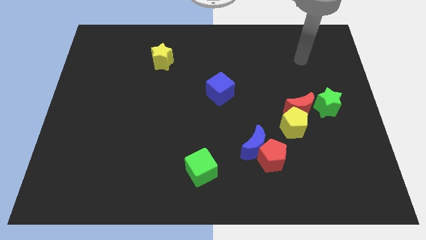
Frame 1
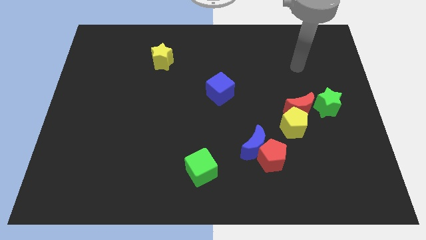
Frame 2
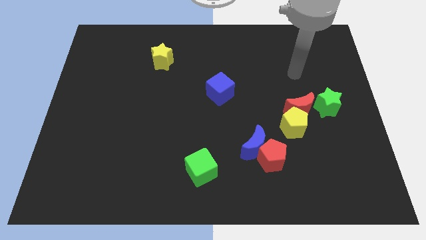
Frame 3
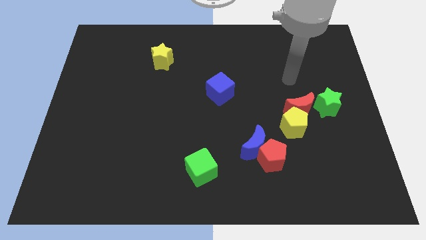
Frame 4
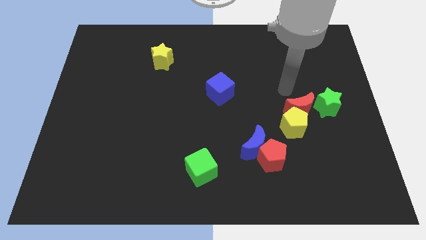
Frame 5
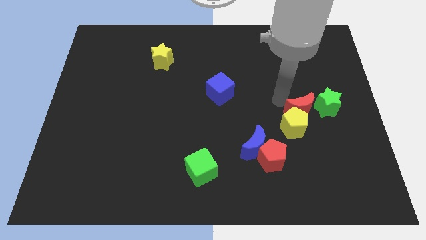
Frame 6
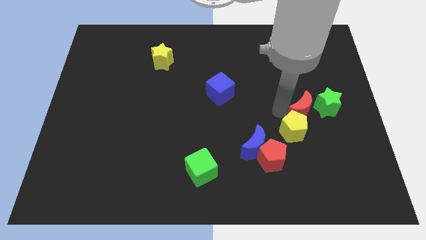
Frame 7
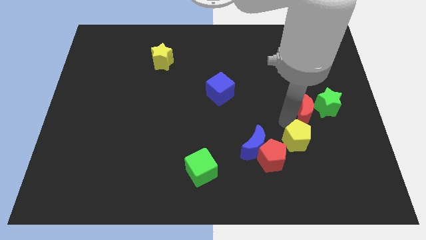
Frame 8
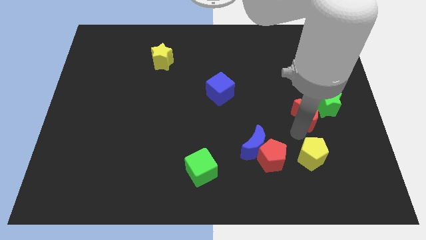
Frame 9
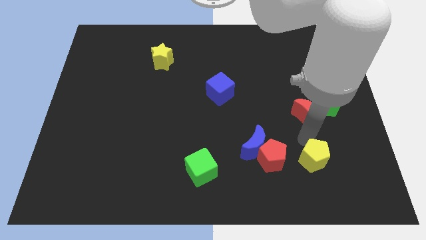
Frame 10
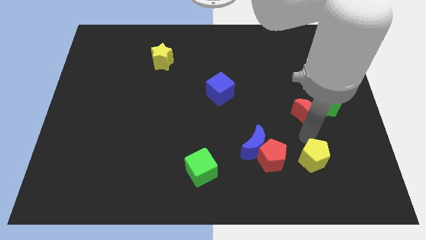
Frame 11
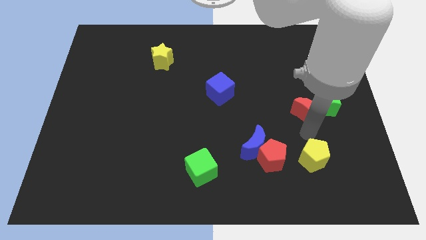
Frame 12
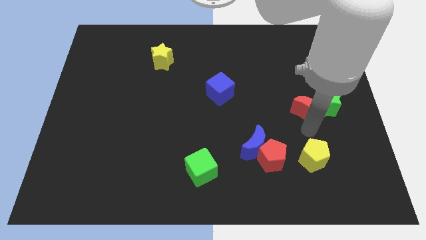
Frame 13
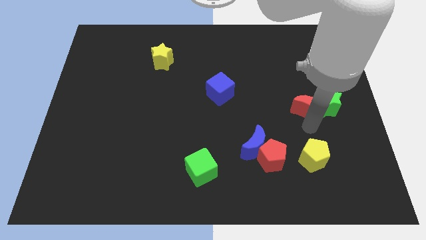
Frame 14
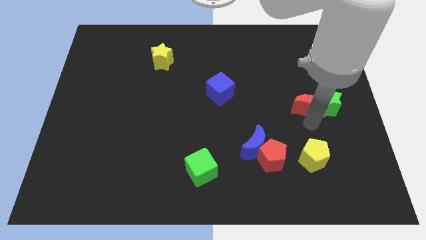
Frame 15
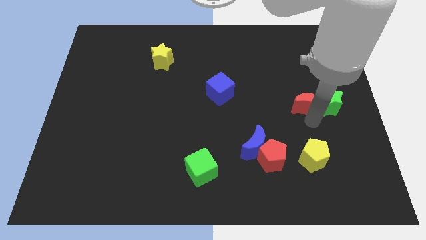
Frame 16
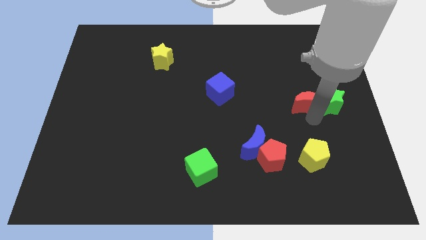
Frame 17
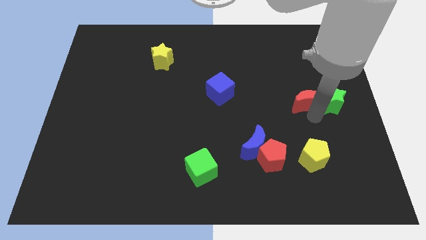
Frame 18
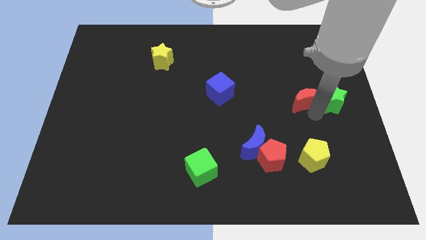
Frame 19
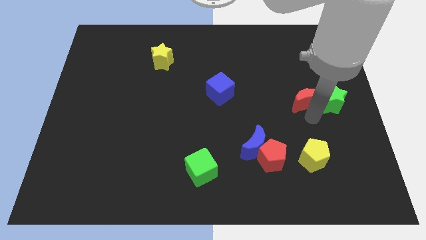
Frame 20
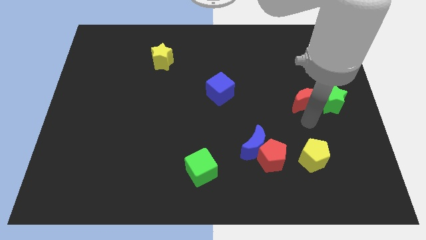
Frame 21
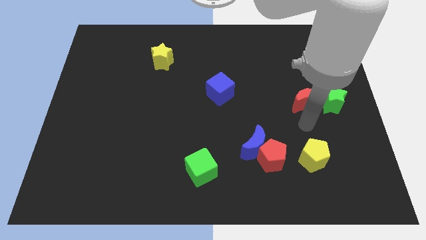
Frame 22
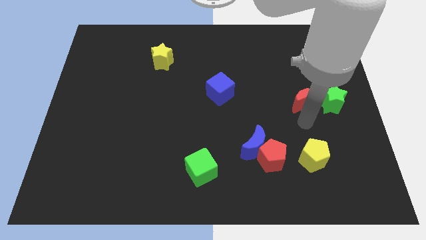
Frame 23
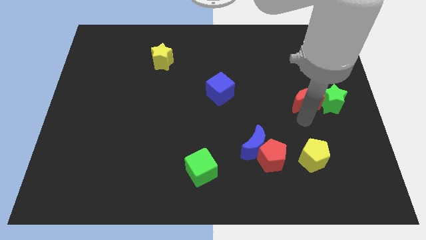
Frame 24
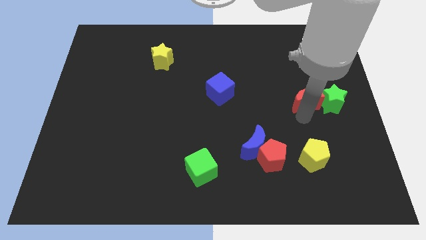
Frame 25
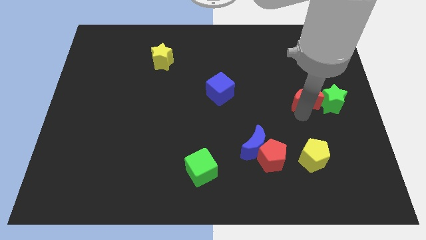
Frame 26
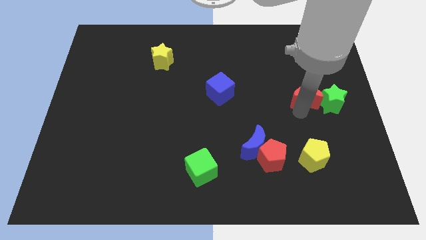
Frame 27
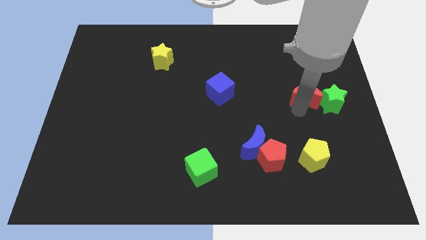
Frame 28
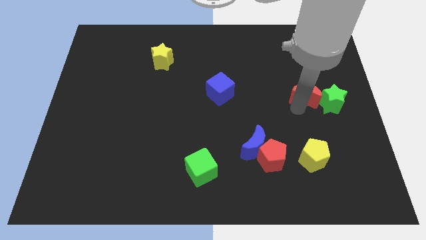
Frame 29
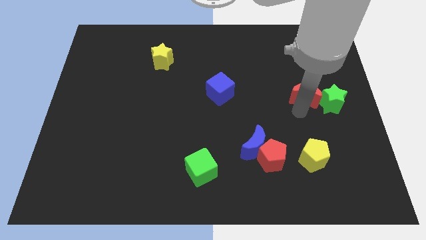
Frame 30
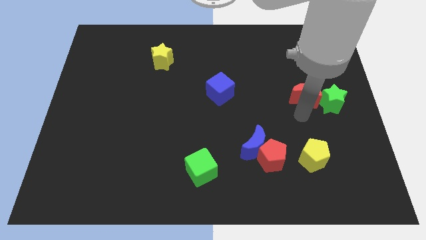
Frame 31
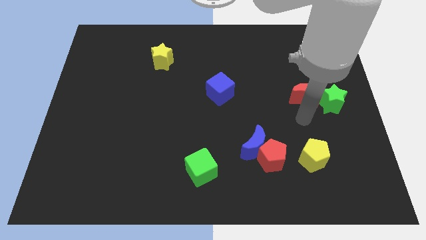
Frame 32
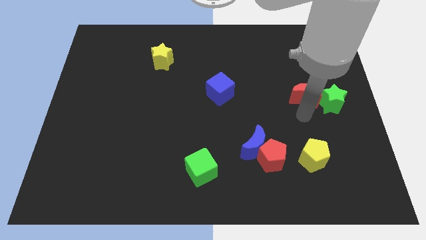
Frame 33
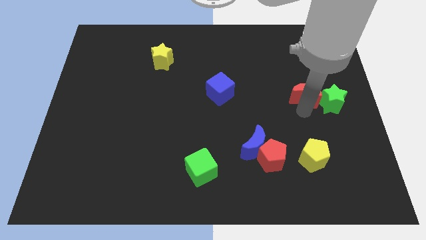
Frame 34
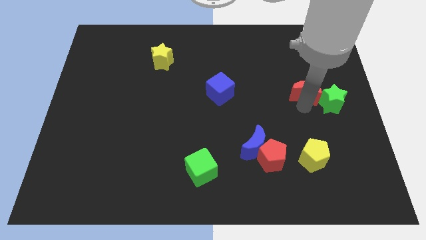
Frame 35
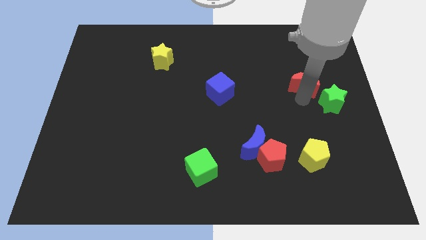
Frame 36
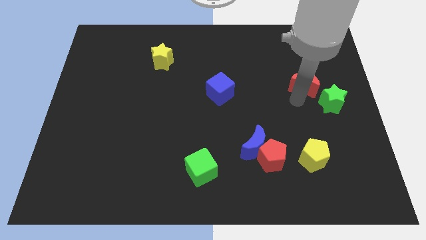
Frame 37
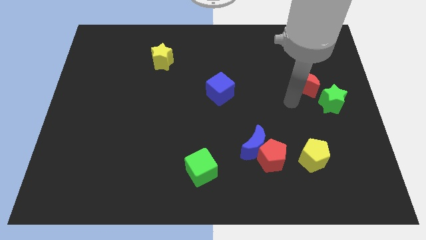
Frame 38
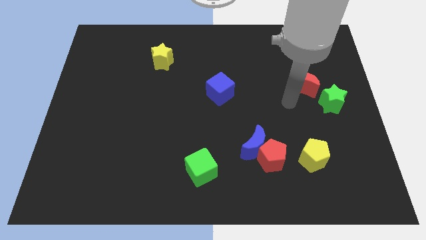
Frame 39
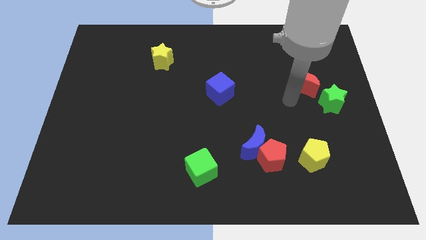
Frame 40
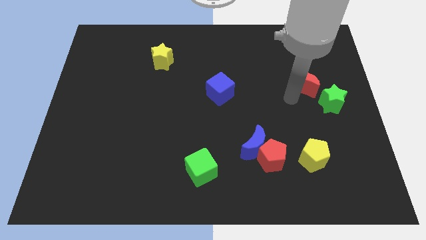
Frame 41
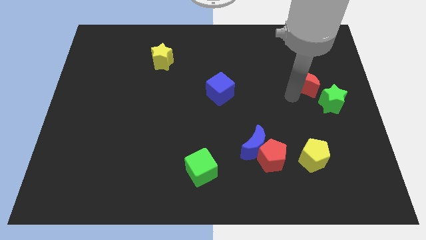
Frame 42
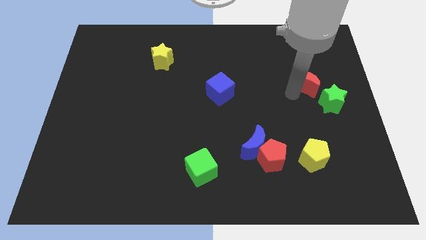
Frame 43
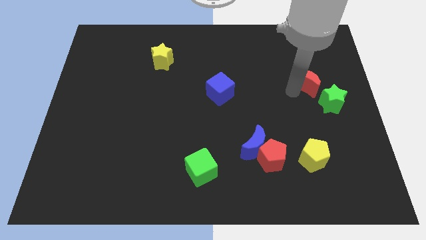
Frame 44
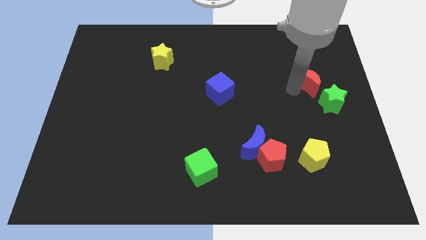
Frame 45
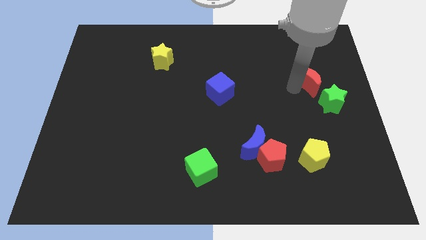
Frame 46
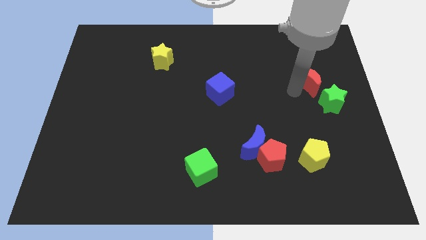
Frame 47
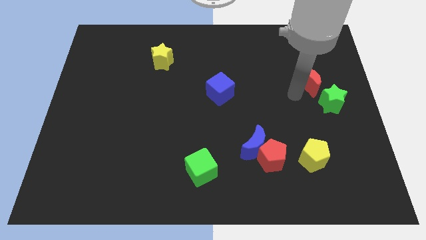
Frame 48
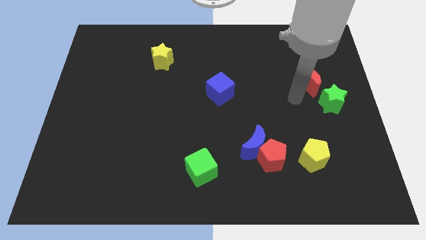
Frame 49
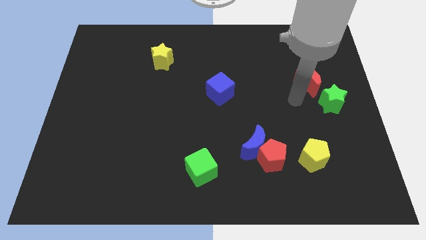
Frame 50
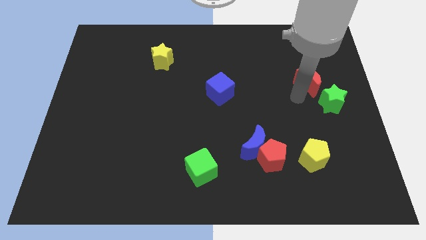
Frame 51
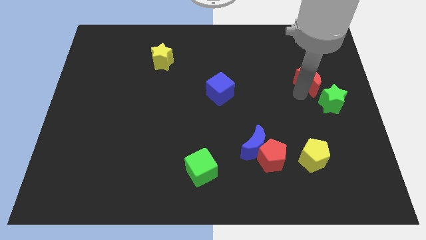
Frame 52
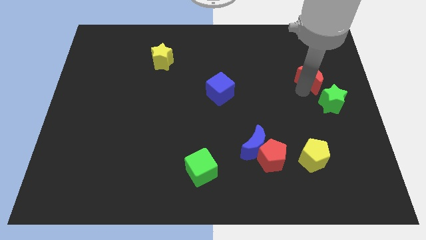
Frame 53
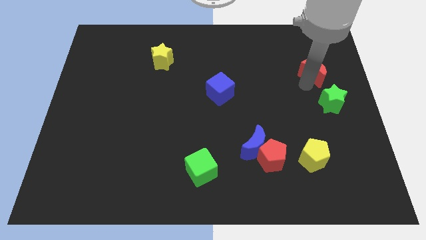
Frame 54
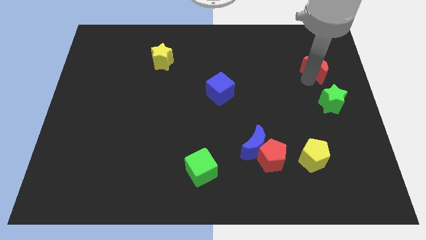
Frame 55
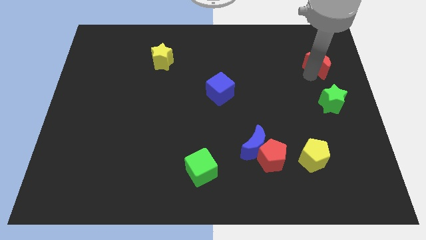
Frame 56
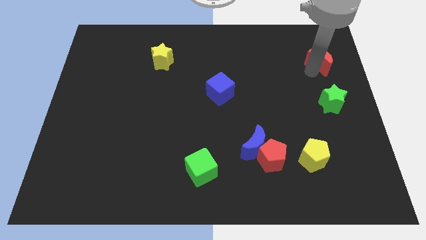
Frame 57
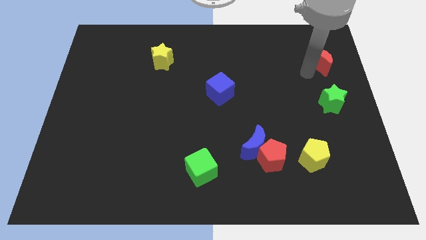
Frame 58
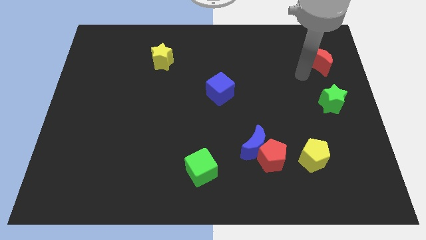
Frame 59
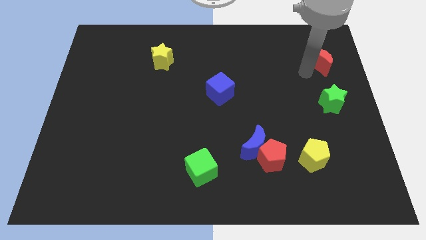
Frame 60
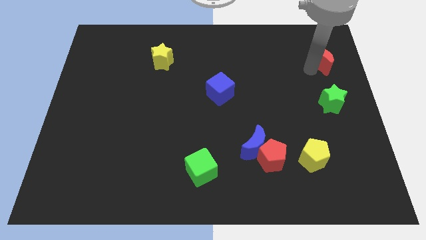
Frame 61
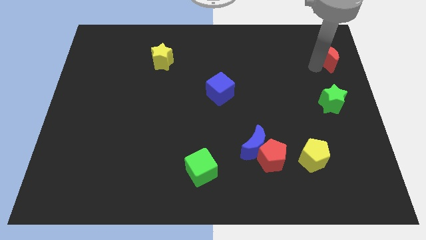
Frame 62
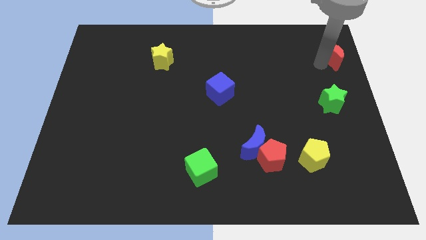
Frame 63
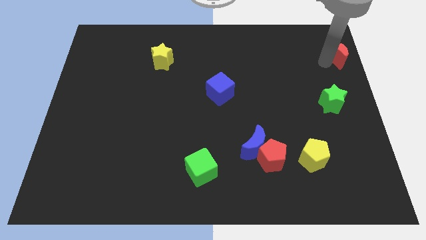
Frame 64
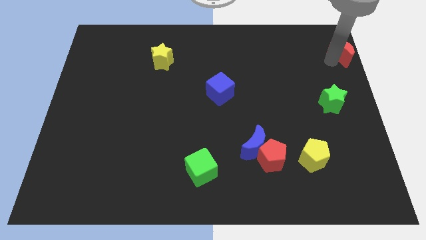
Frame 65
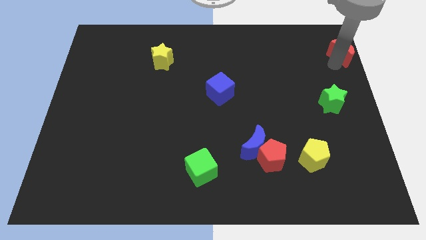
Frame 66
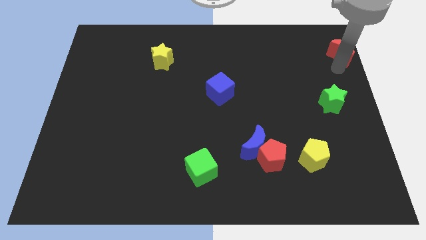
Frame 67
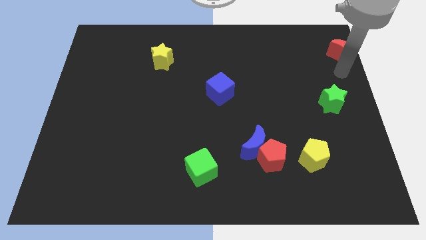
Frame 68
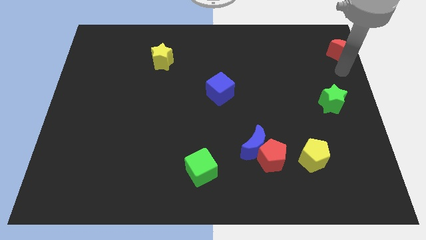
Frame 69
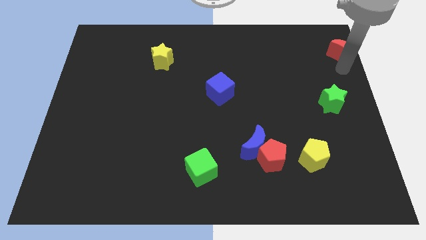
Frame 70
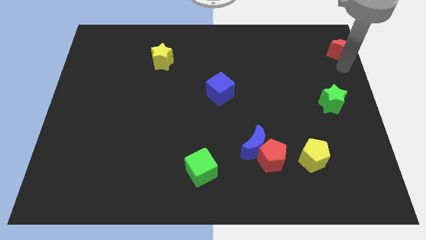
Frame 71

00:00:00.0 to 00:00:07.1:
slide the red moon to the upper right corner
